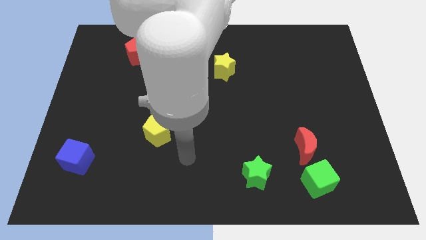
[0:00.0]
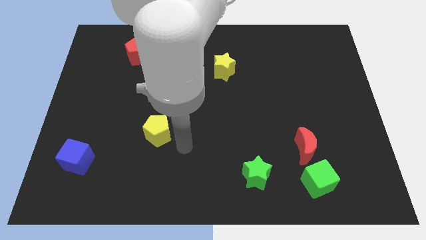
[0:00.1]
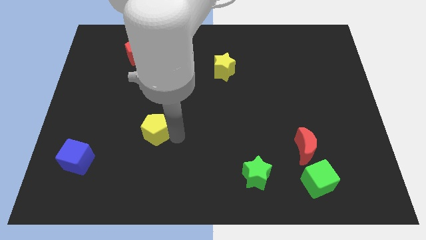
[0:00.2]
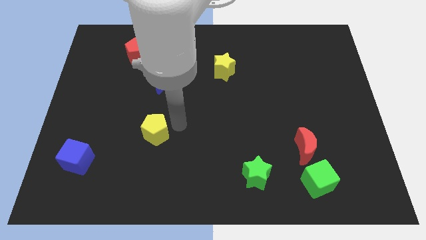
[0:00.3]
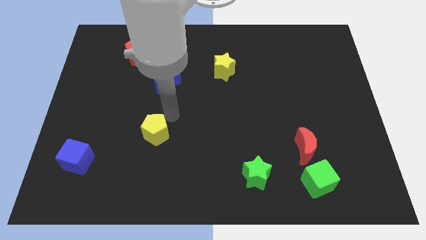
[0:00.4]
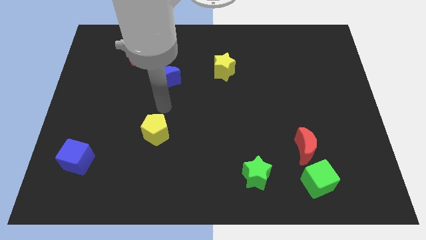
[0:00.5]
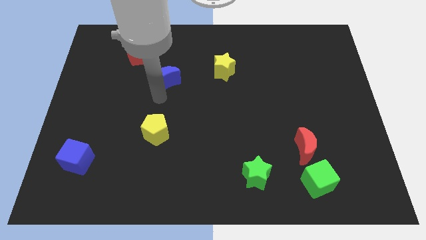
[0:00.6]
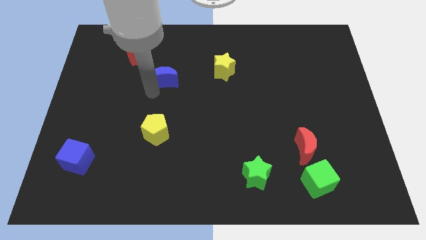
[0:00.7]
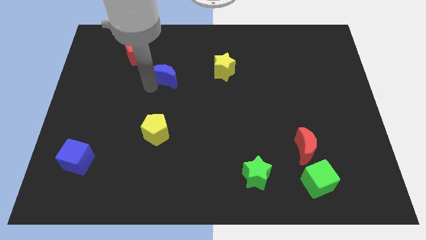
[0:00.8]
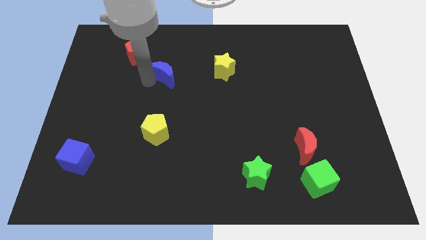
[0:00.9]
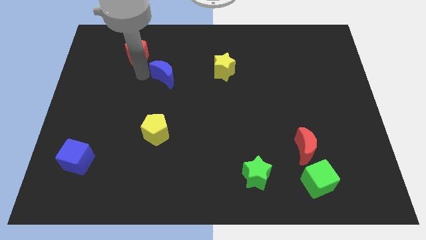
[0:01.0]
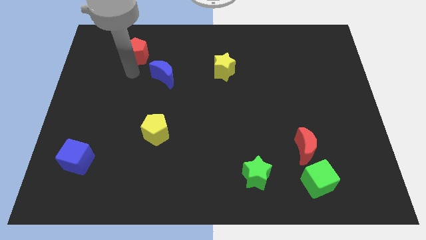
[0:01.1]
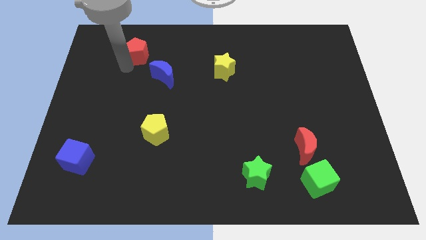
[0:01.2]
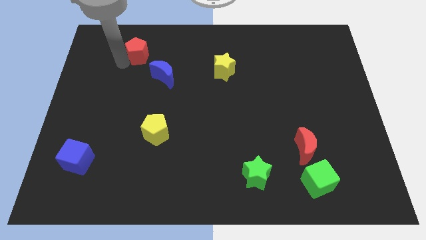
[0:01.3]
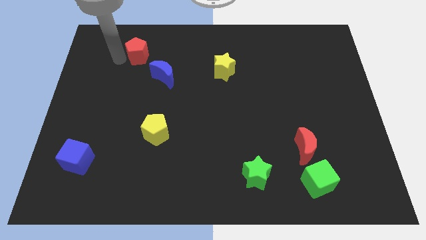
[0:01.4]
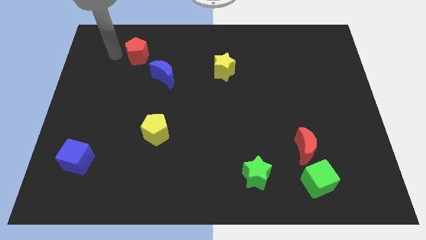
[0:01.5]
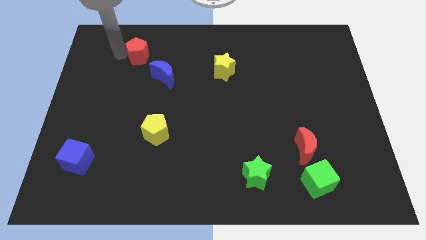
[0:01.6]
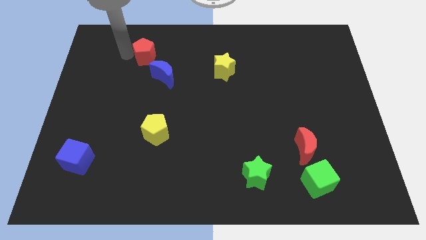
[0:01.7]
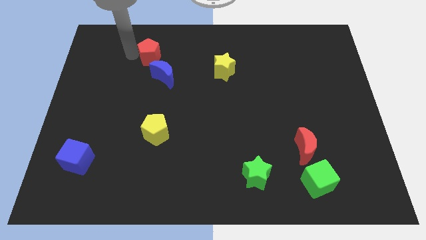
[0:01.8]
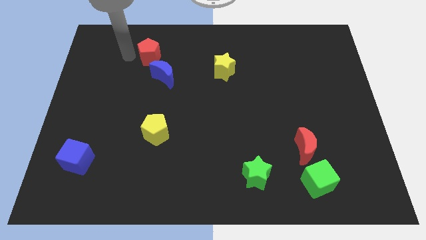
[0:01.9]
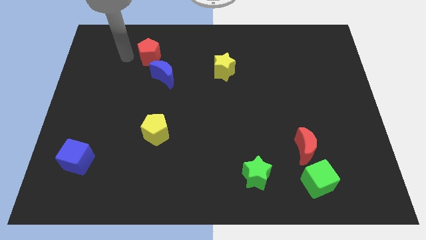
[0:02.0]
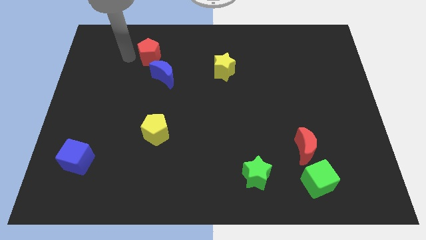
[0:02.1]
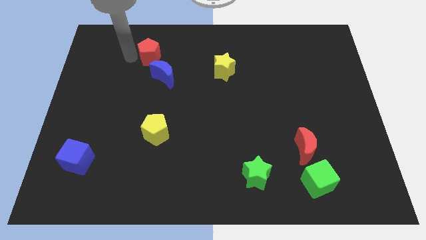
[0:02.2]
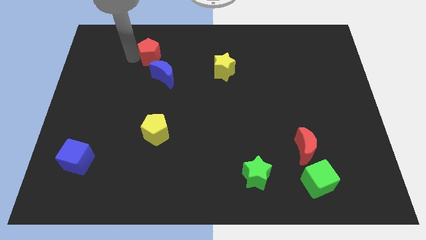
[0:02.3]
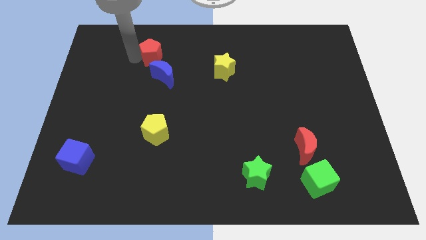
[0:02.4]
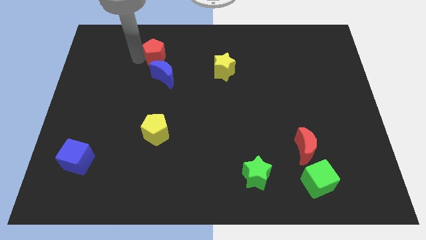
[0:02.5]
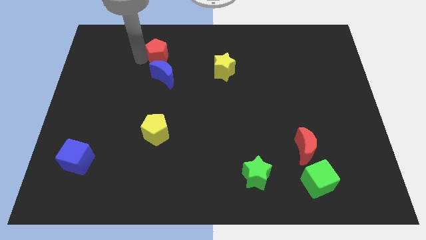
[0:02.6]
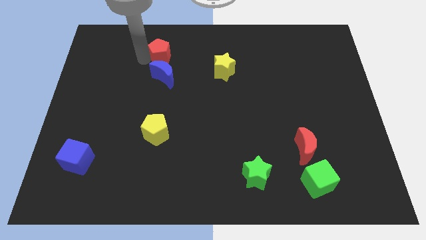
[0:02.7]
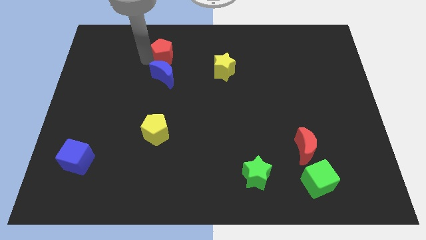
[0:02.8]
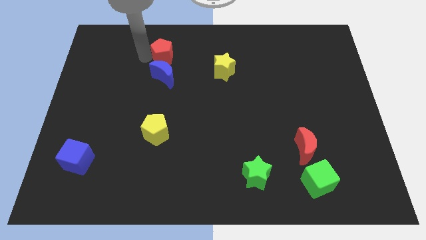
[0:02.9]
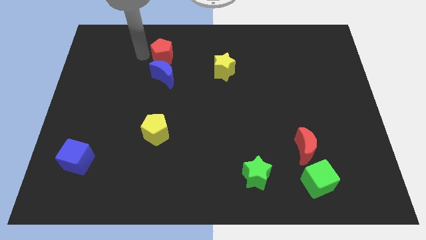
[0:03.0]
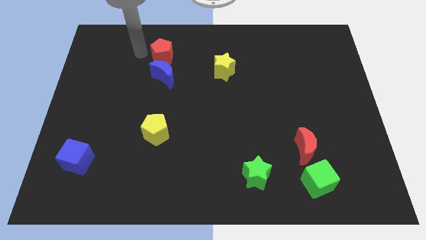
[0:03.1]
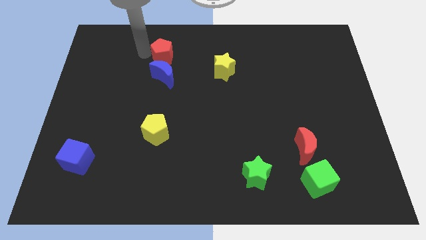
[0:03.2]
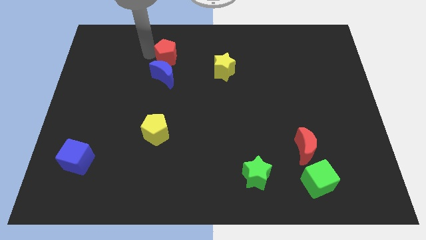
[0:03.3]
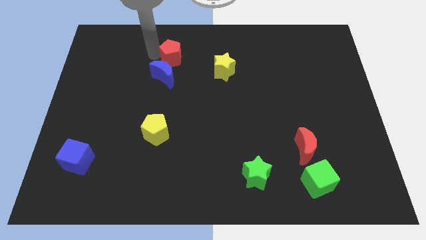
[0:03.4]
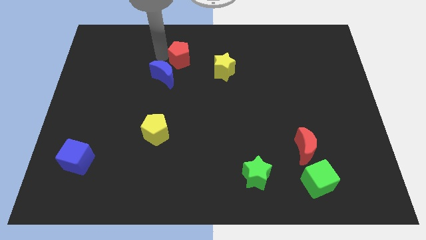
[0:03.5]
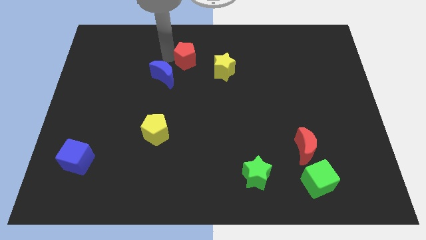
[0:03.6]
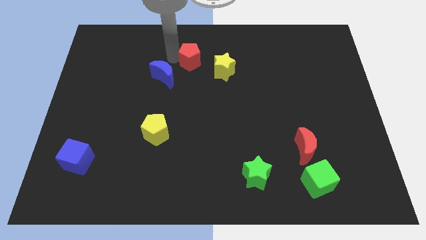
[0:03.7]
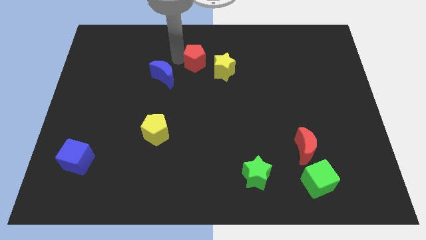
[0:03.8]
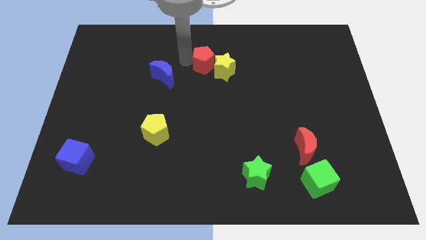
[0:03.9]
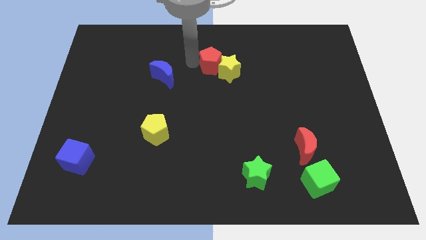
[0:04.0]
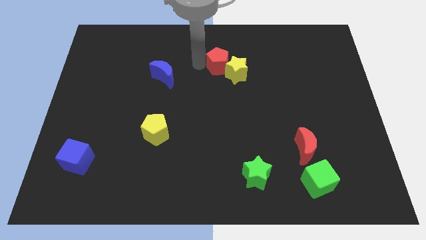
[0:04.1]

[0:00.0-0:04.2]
slide the red pentagon to the right

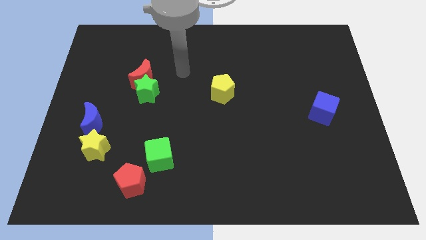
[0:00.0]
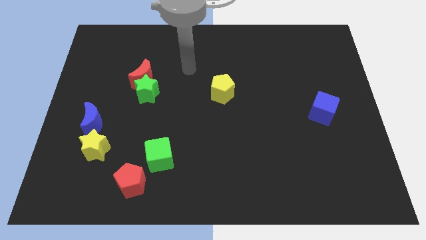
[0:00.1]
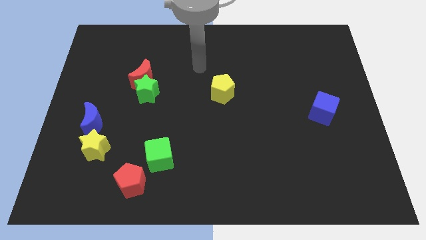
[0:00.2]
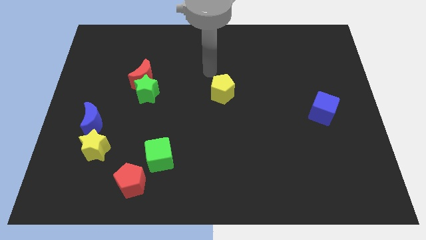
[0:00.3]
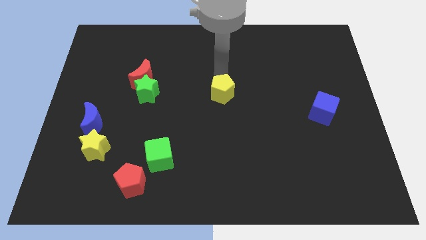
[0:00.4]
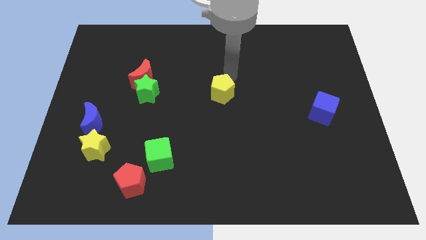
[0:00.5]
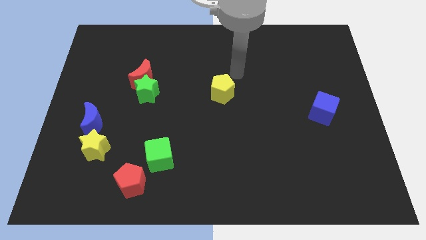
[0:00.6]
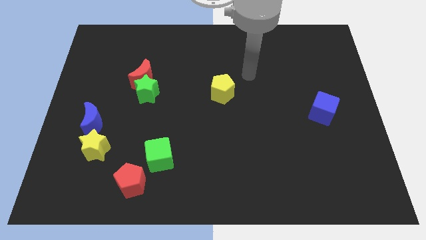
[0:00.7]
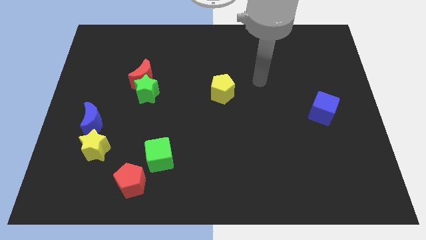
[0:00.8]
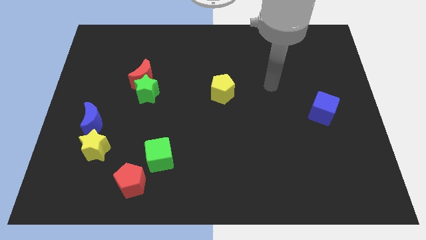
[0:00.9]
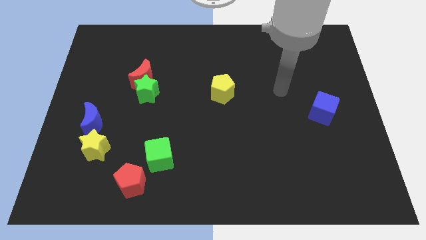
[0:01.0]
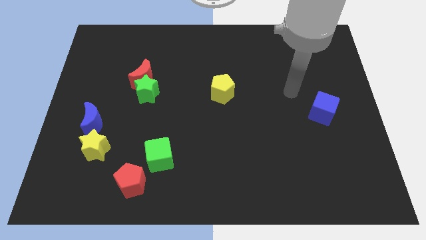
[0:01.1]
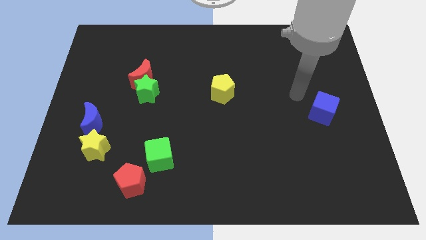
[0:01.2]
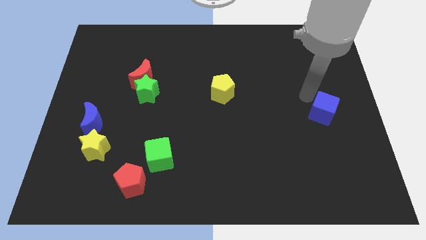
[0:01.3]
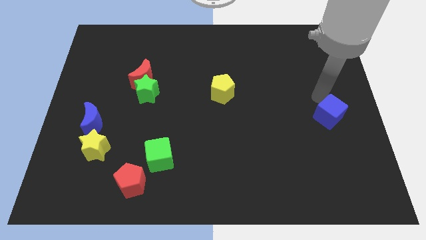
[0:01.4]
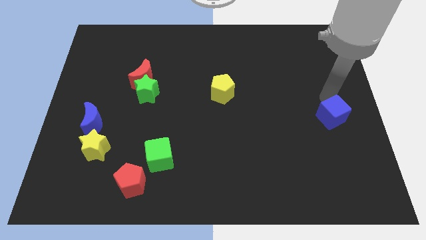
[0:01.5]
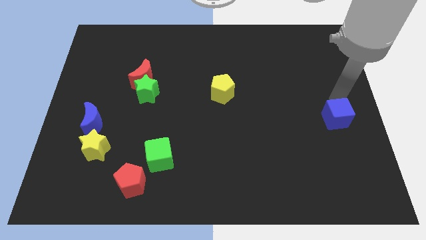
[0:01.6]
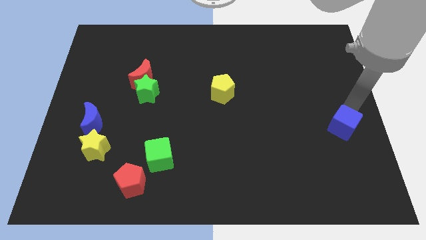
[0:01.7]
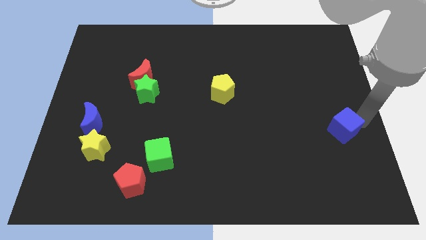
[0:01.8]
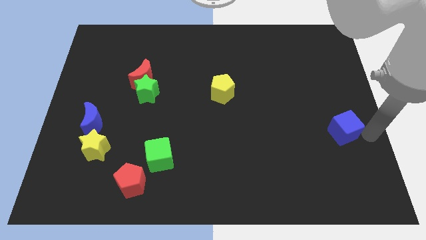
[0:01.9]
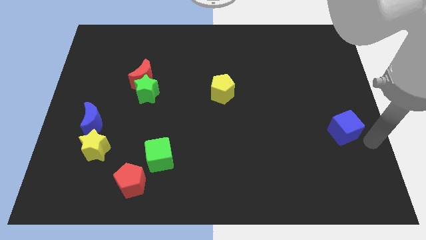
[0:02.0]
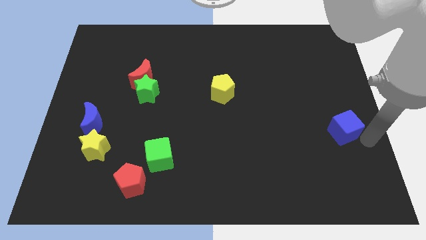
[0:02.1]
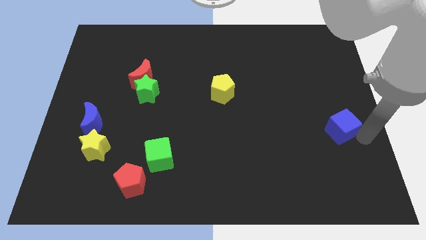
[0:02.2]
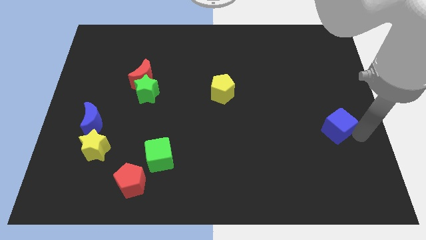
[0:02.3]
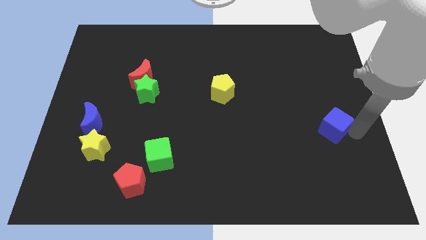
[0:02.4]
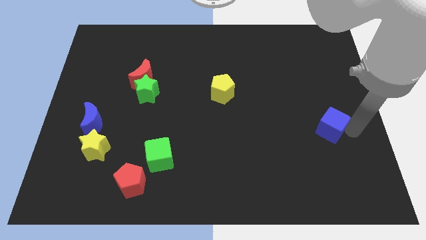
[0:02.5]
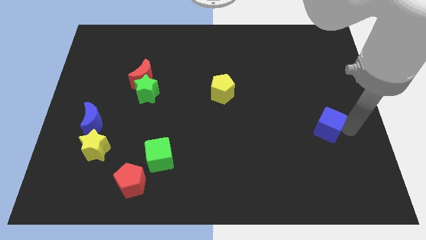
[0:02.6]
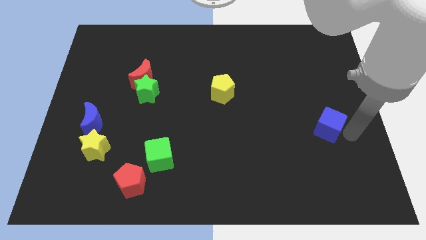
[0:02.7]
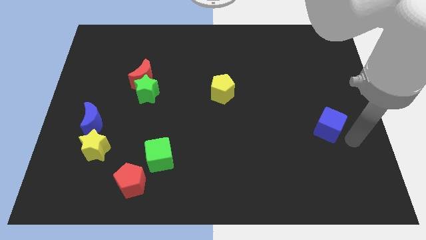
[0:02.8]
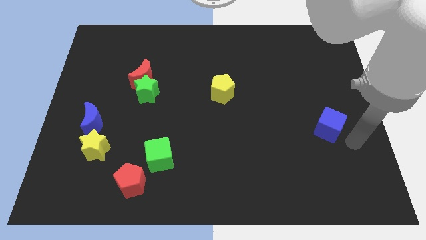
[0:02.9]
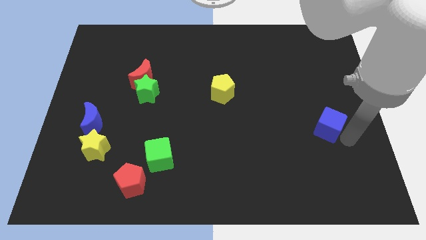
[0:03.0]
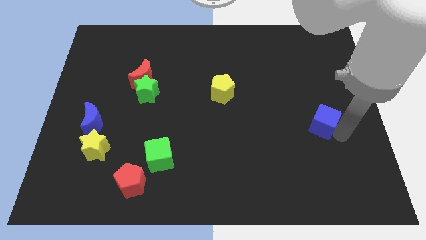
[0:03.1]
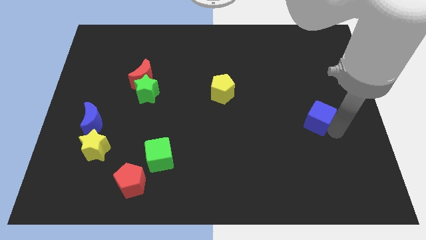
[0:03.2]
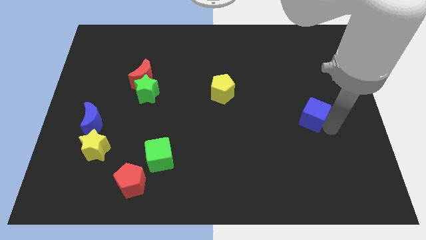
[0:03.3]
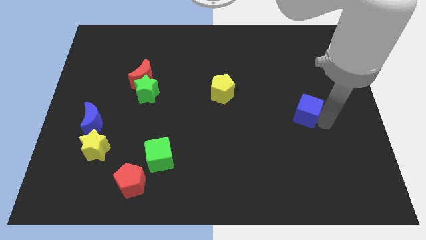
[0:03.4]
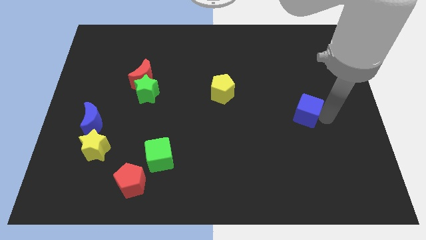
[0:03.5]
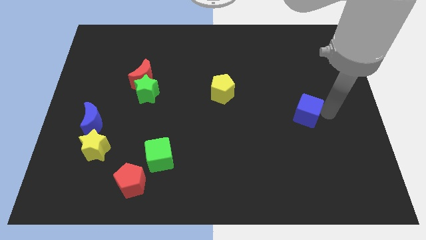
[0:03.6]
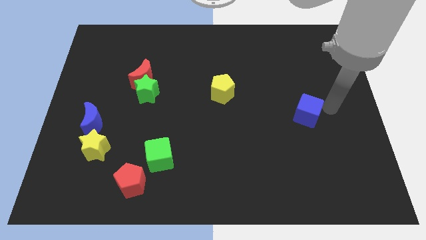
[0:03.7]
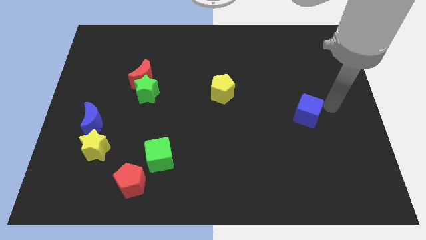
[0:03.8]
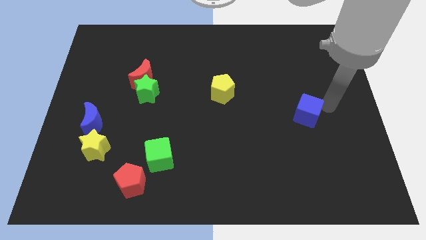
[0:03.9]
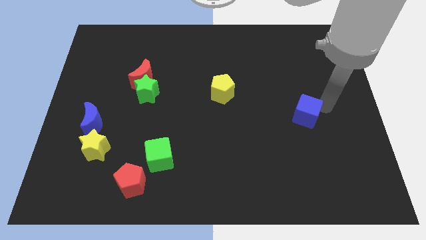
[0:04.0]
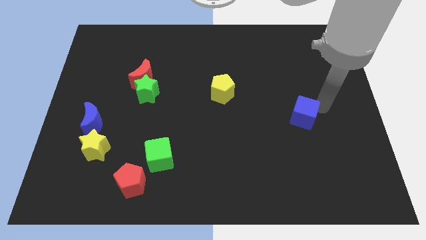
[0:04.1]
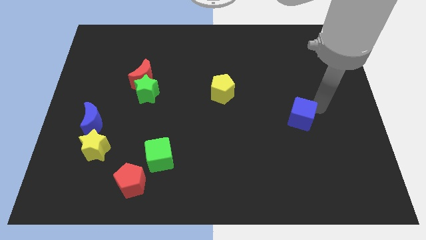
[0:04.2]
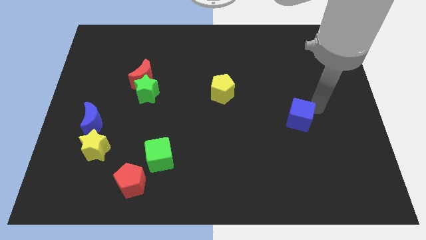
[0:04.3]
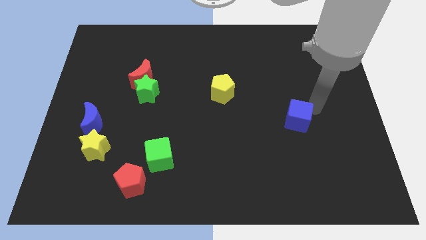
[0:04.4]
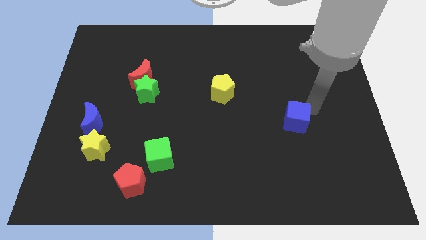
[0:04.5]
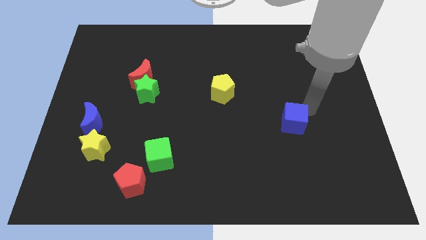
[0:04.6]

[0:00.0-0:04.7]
push the blue cube to the left a bit
